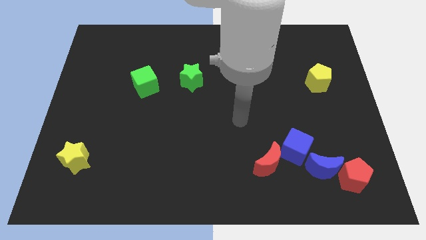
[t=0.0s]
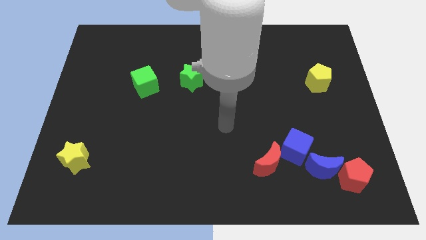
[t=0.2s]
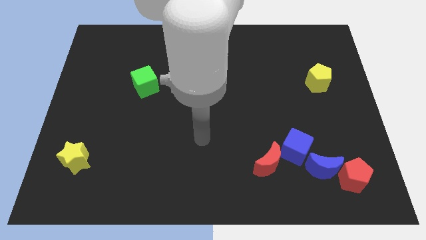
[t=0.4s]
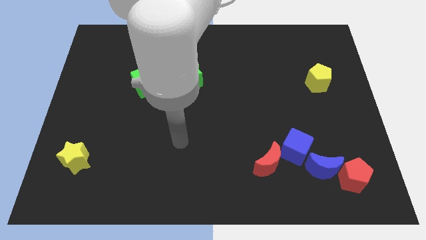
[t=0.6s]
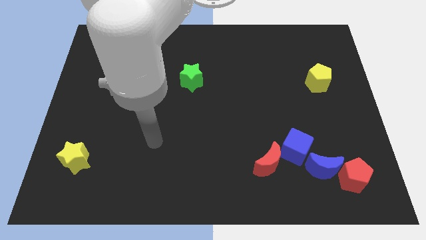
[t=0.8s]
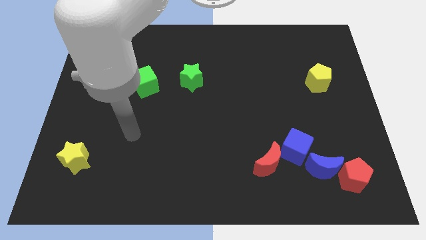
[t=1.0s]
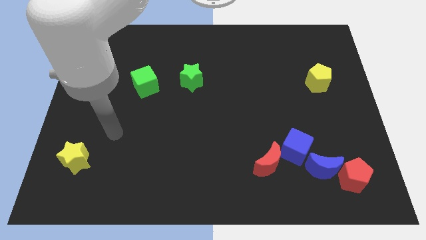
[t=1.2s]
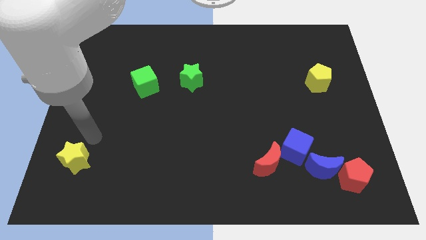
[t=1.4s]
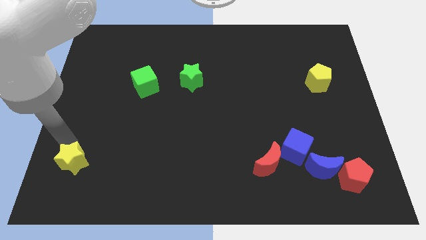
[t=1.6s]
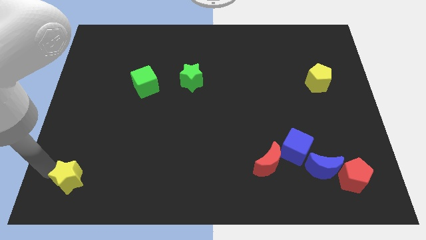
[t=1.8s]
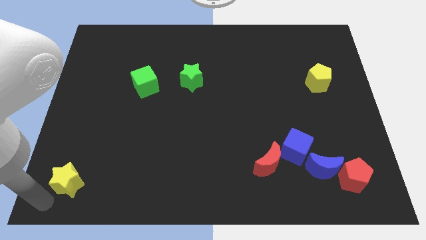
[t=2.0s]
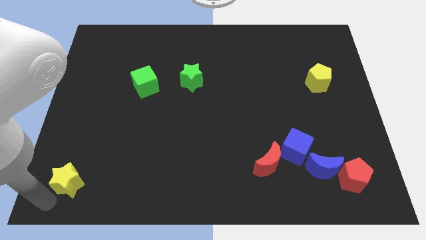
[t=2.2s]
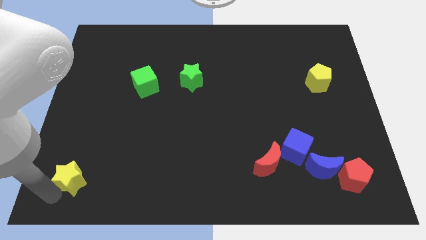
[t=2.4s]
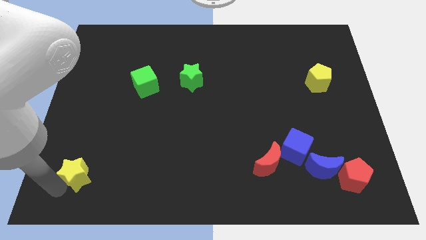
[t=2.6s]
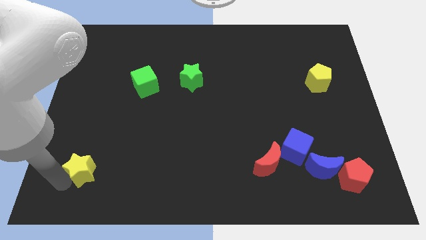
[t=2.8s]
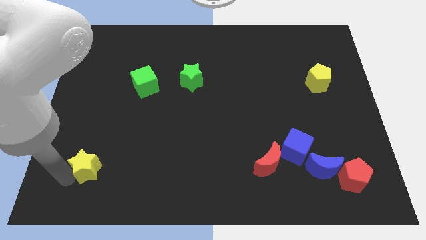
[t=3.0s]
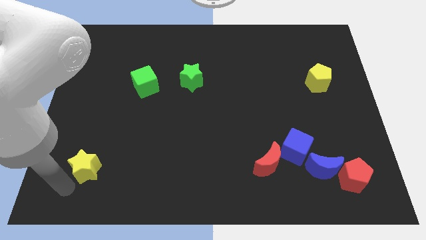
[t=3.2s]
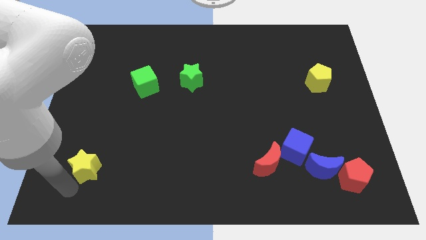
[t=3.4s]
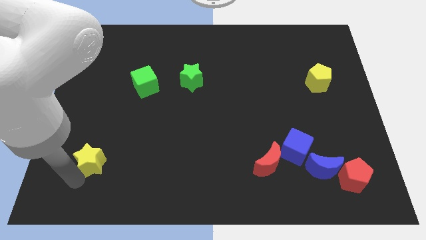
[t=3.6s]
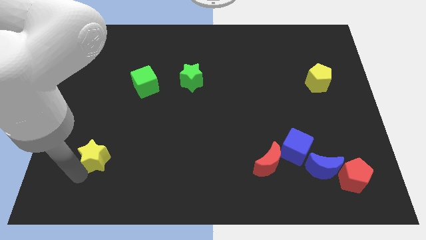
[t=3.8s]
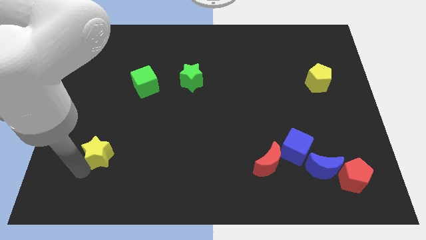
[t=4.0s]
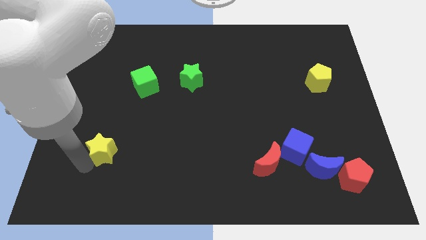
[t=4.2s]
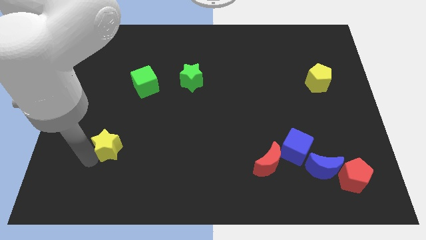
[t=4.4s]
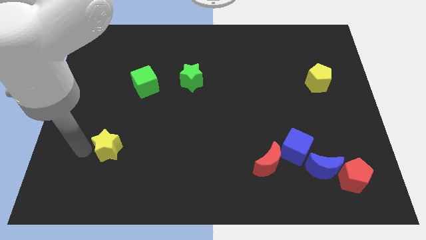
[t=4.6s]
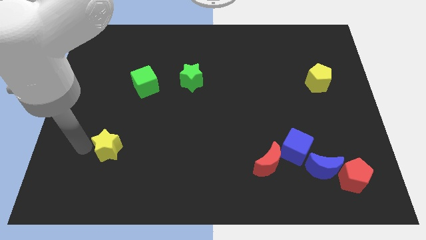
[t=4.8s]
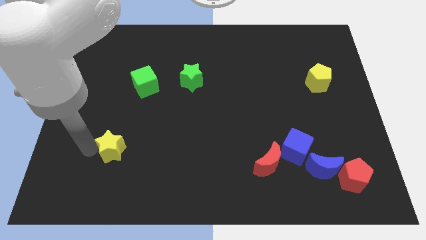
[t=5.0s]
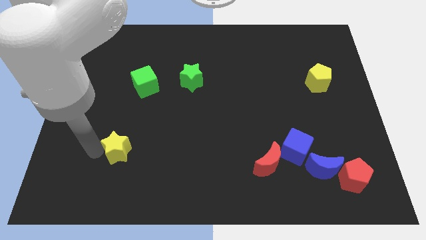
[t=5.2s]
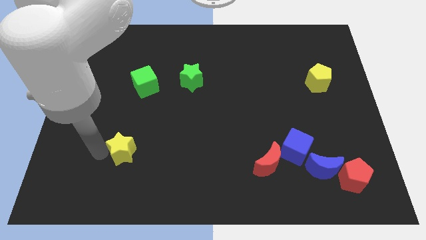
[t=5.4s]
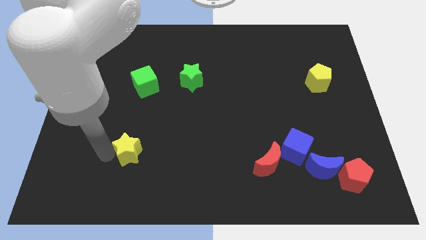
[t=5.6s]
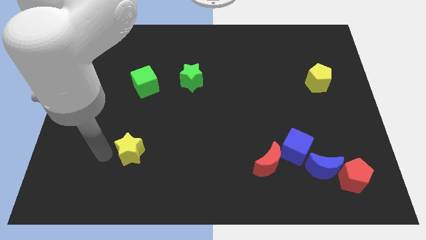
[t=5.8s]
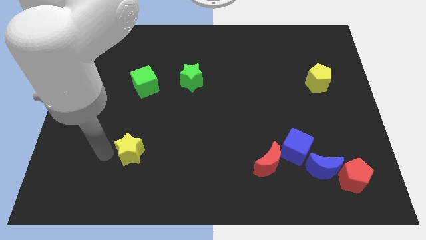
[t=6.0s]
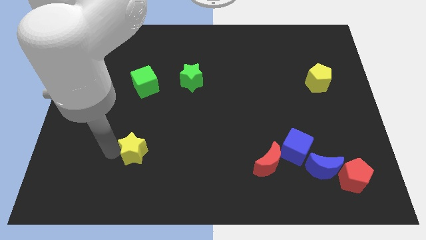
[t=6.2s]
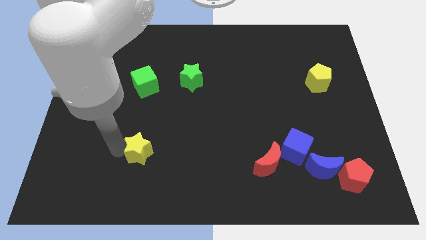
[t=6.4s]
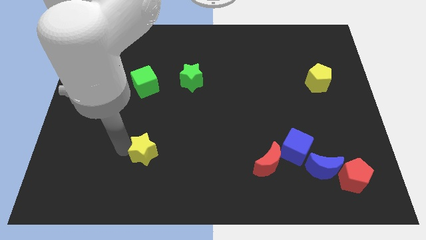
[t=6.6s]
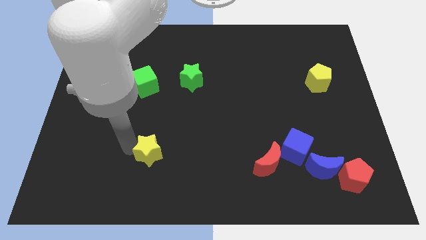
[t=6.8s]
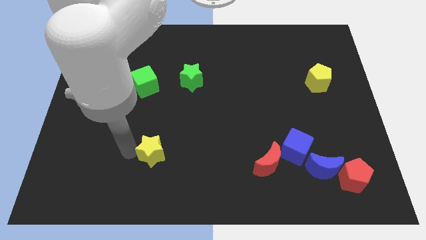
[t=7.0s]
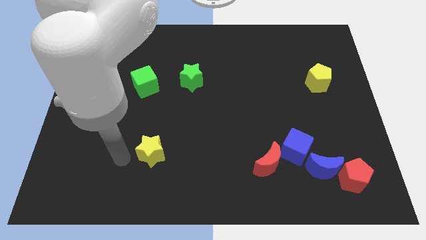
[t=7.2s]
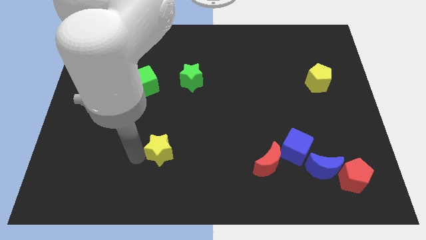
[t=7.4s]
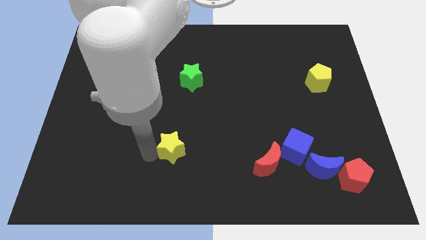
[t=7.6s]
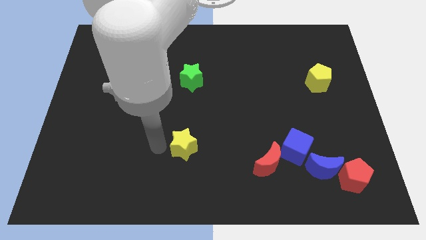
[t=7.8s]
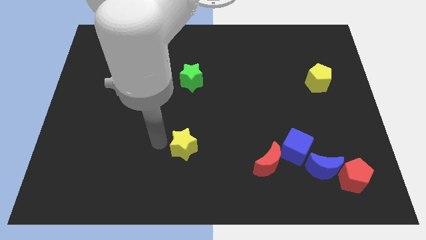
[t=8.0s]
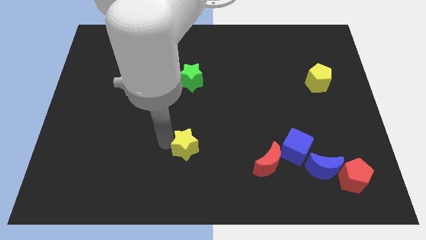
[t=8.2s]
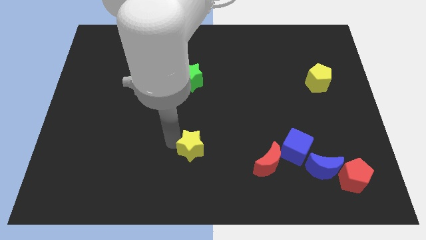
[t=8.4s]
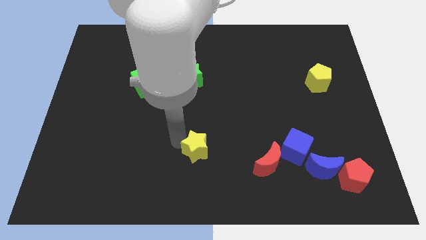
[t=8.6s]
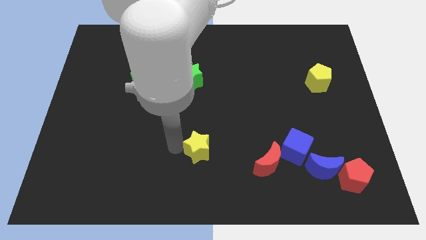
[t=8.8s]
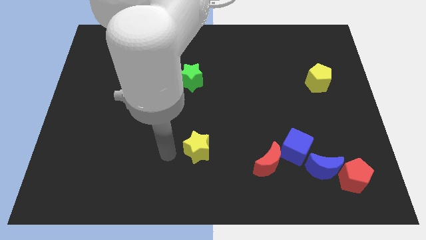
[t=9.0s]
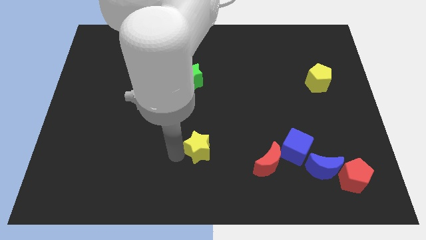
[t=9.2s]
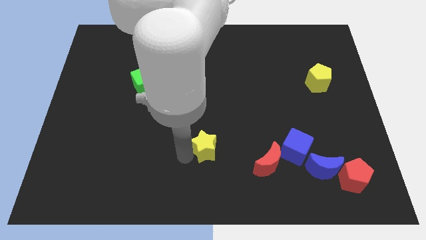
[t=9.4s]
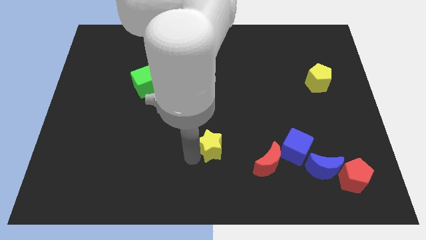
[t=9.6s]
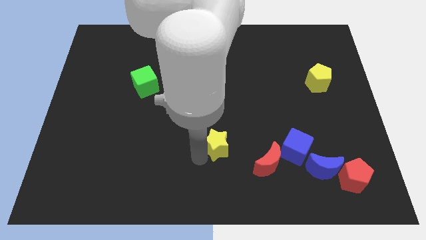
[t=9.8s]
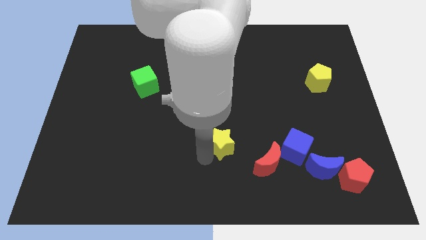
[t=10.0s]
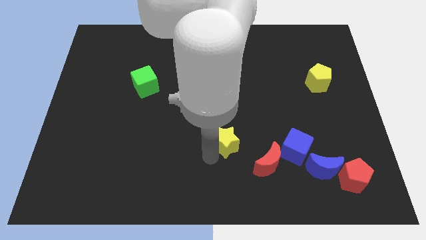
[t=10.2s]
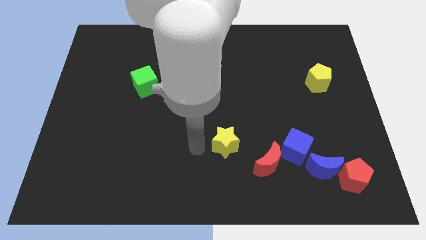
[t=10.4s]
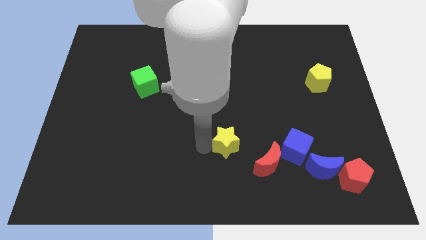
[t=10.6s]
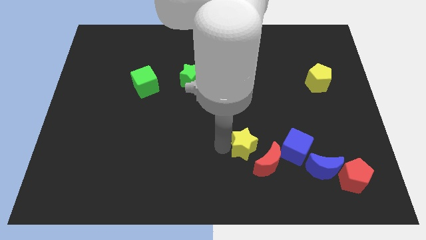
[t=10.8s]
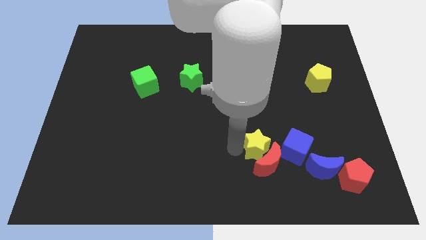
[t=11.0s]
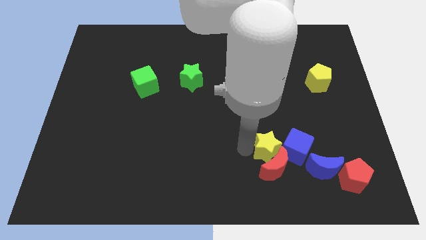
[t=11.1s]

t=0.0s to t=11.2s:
push the yellow star towards the blue cube

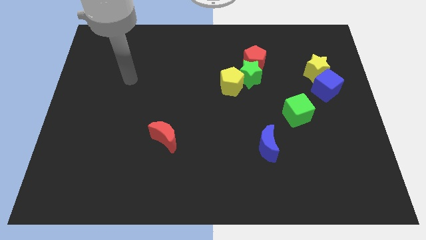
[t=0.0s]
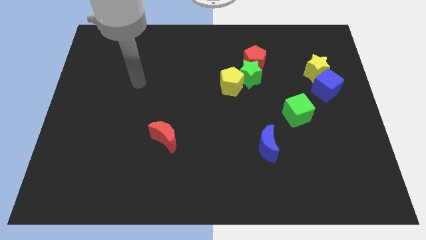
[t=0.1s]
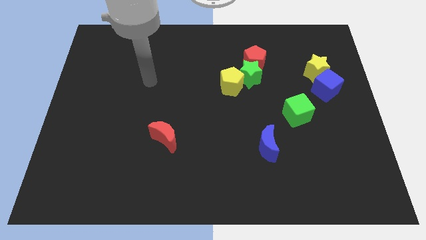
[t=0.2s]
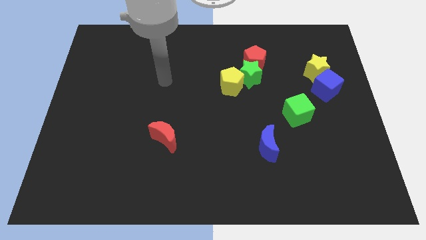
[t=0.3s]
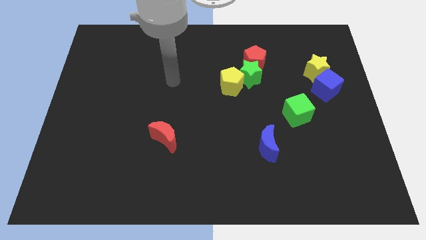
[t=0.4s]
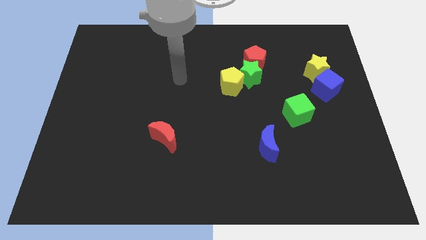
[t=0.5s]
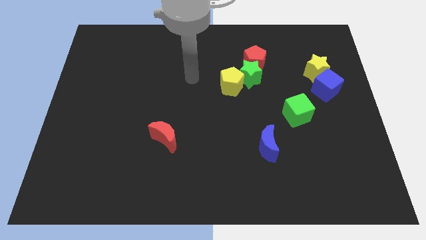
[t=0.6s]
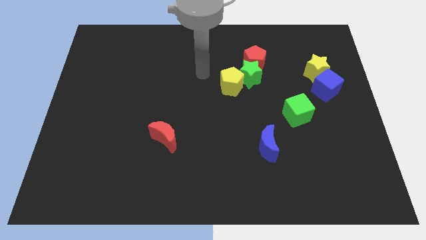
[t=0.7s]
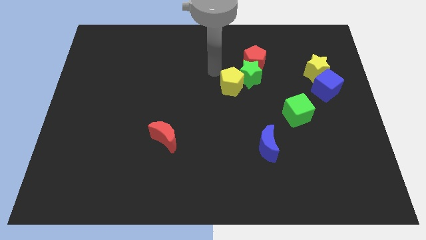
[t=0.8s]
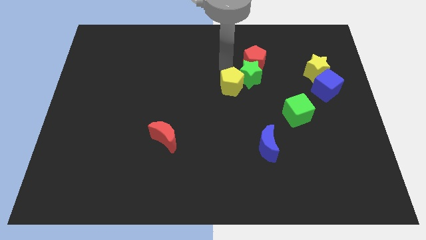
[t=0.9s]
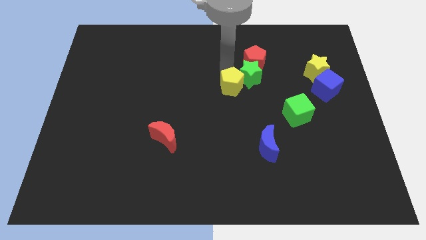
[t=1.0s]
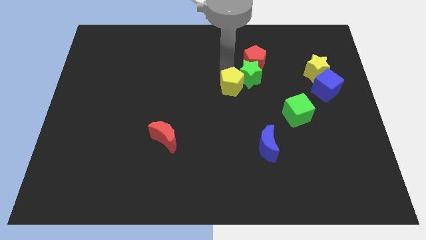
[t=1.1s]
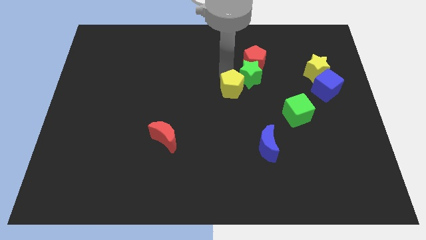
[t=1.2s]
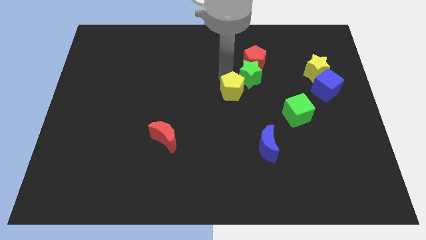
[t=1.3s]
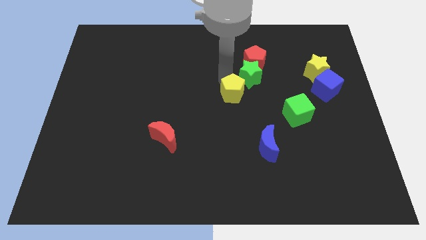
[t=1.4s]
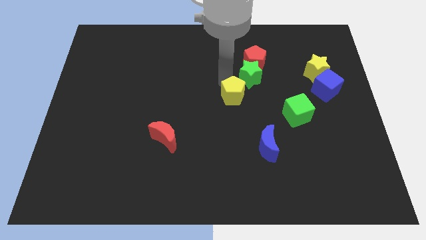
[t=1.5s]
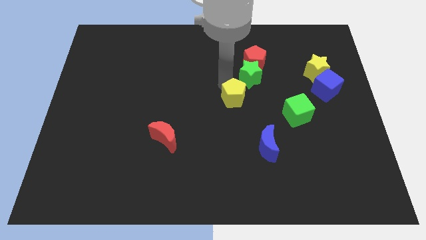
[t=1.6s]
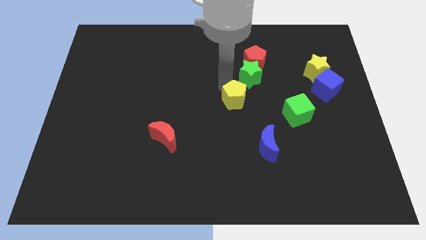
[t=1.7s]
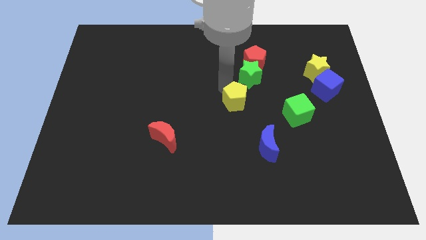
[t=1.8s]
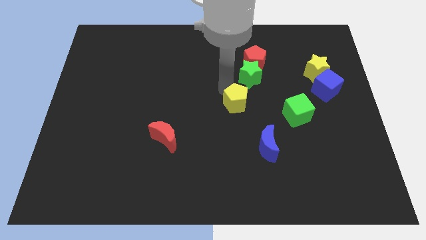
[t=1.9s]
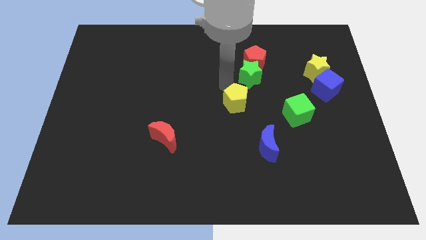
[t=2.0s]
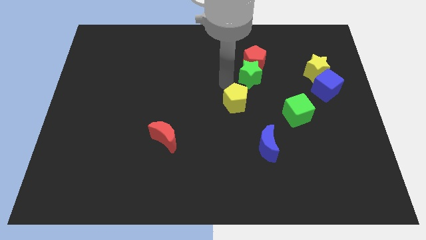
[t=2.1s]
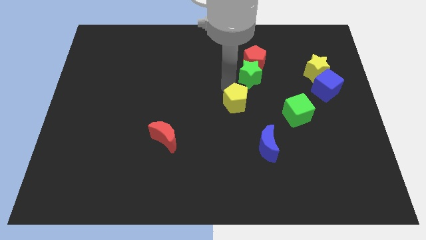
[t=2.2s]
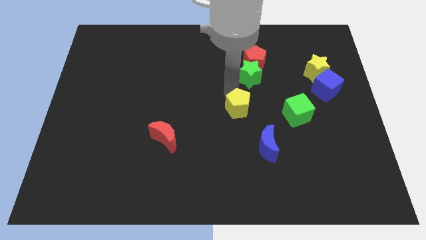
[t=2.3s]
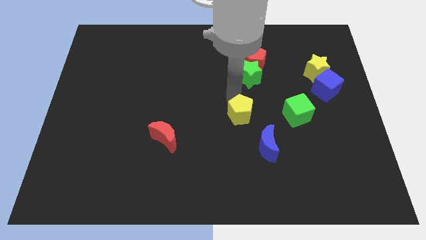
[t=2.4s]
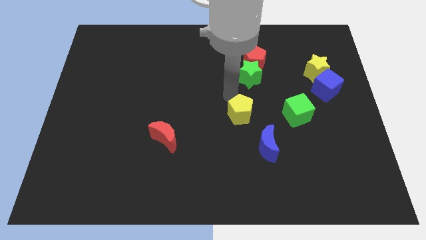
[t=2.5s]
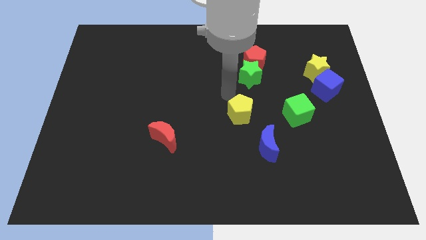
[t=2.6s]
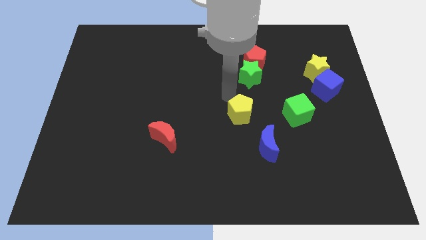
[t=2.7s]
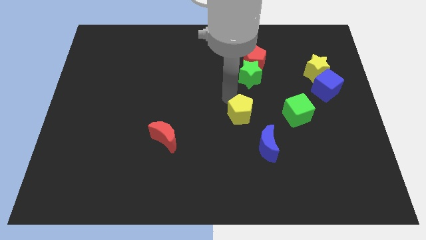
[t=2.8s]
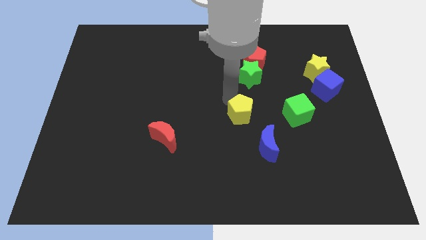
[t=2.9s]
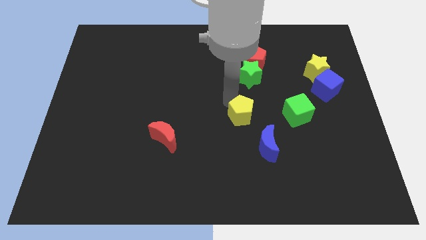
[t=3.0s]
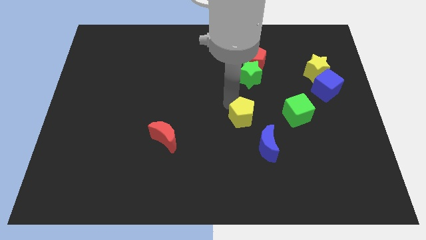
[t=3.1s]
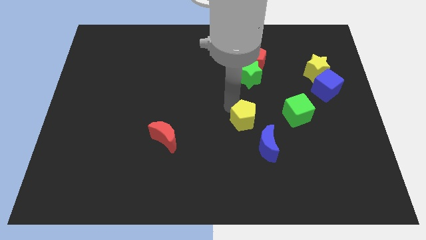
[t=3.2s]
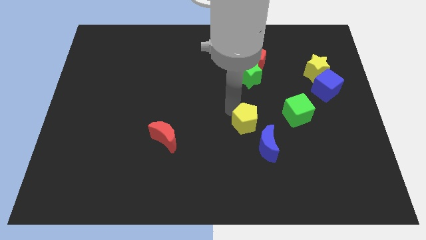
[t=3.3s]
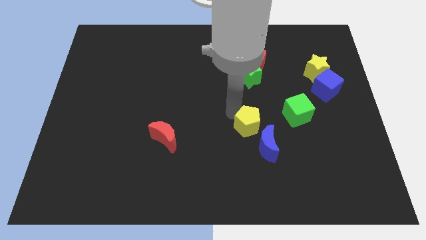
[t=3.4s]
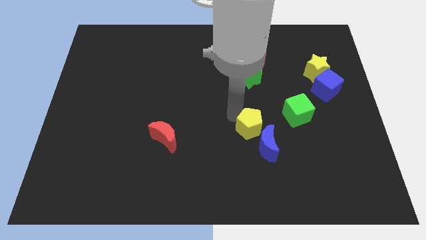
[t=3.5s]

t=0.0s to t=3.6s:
move the yellow pentagon to the blue moon
